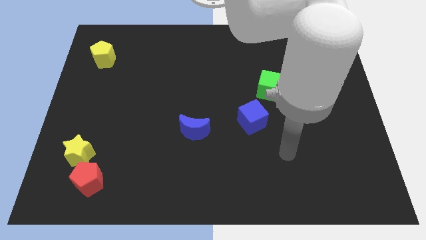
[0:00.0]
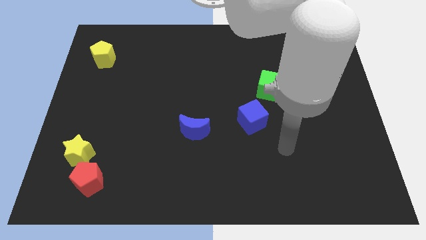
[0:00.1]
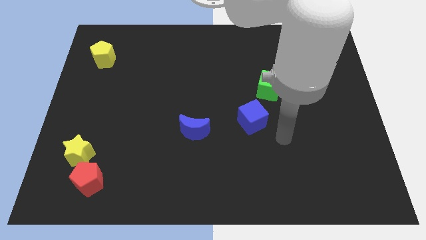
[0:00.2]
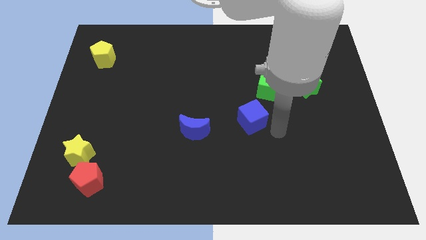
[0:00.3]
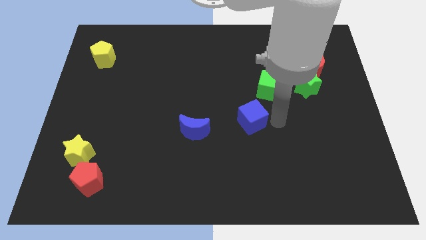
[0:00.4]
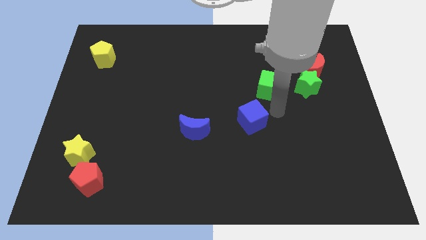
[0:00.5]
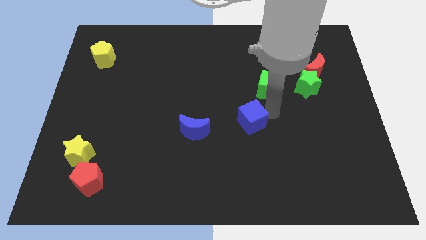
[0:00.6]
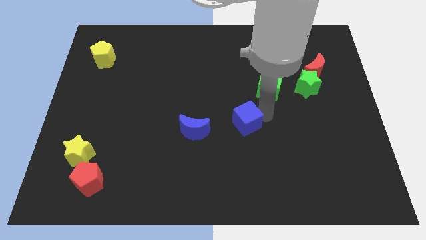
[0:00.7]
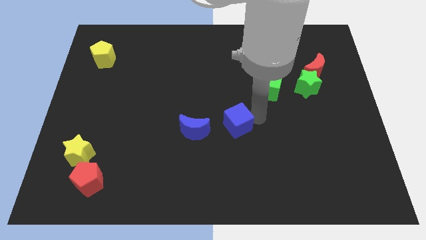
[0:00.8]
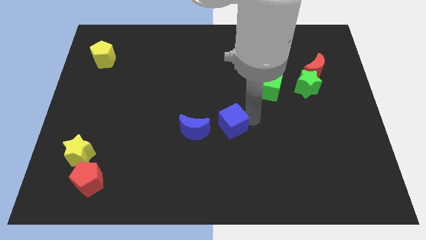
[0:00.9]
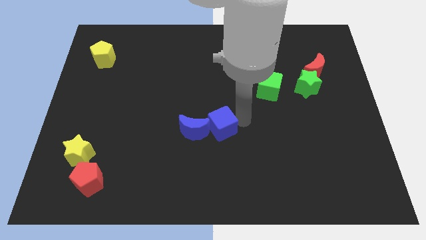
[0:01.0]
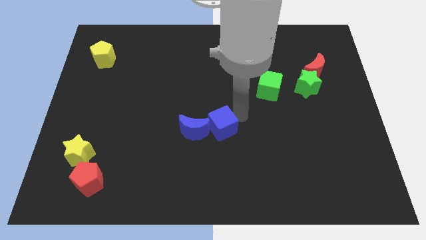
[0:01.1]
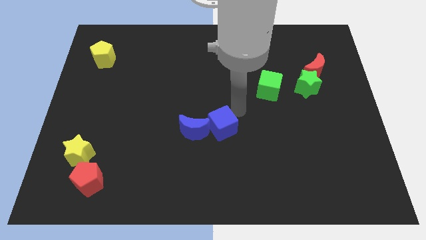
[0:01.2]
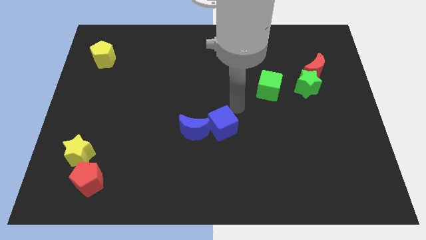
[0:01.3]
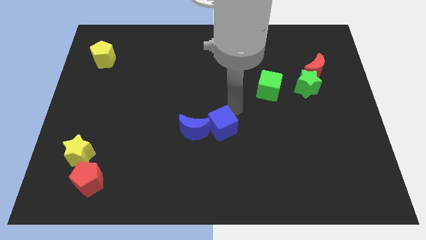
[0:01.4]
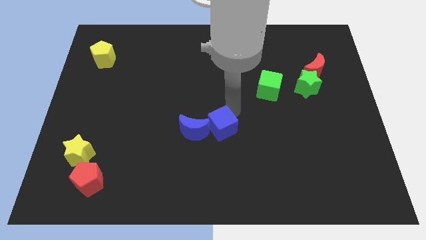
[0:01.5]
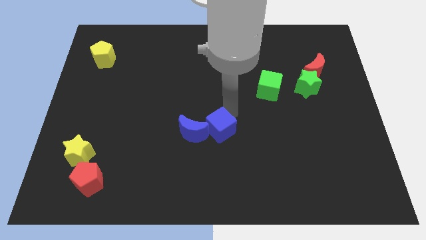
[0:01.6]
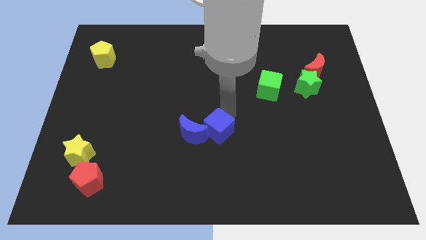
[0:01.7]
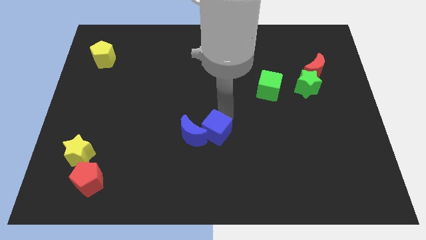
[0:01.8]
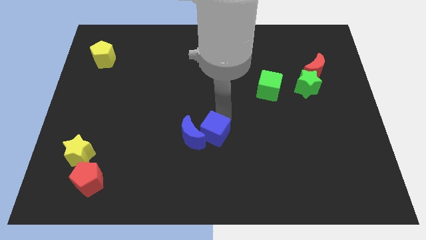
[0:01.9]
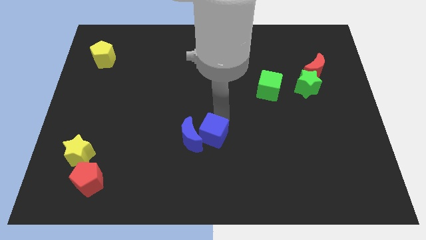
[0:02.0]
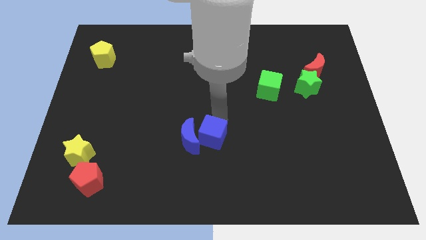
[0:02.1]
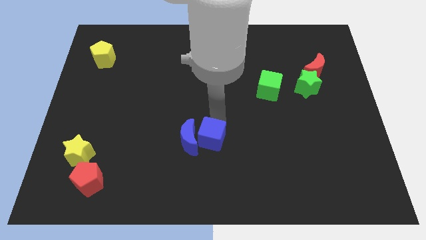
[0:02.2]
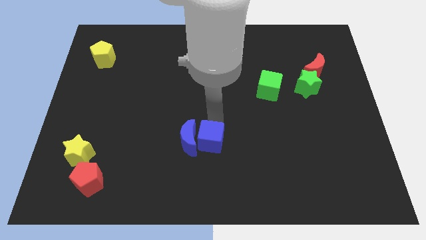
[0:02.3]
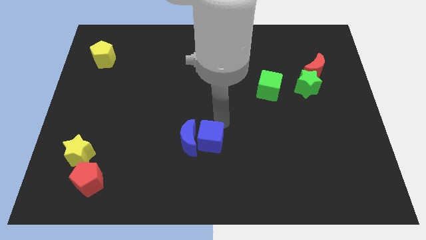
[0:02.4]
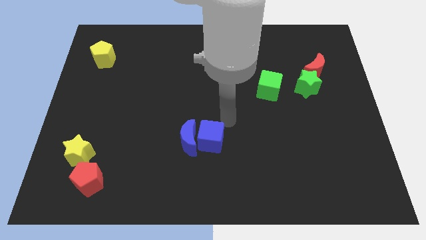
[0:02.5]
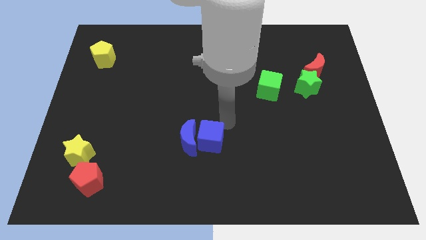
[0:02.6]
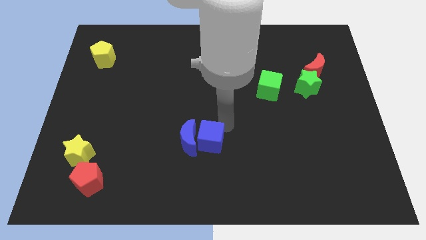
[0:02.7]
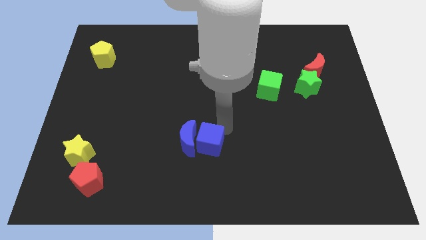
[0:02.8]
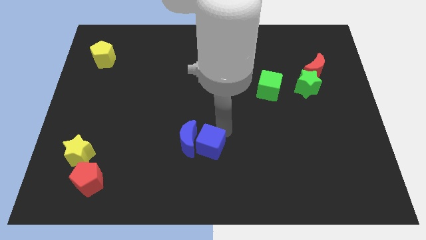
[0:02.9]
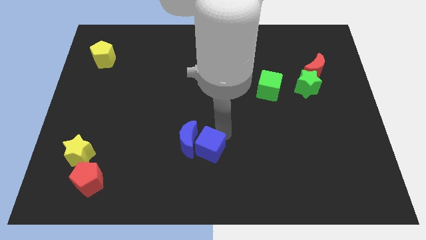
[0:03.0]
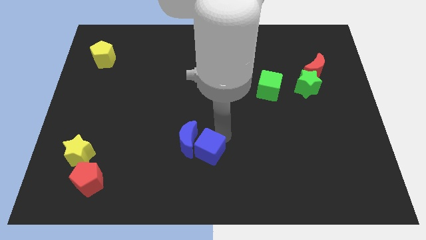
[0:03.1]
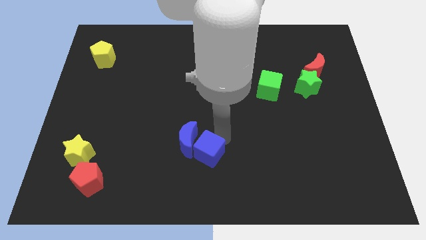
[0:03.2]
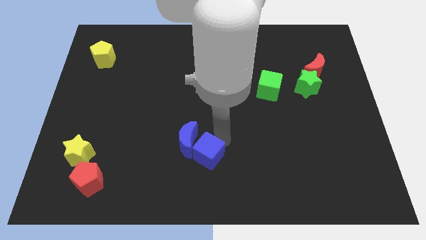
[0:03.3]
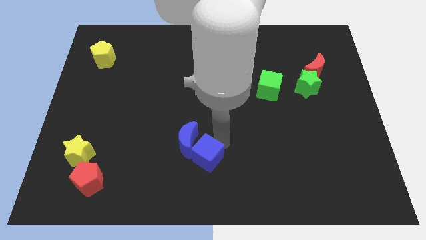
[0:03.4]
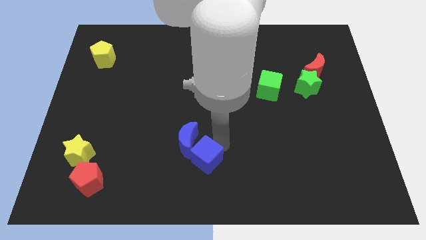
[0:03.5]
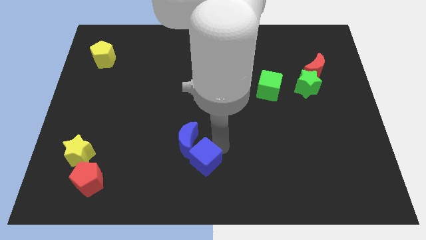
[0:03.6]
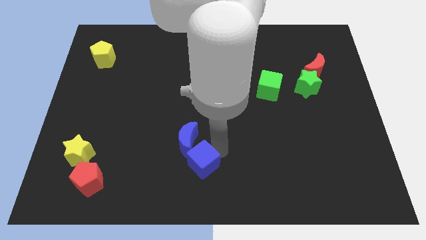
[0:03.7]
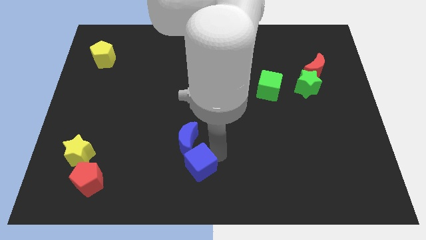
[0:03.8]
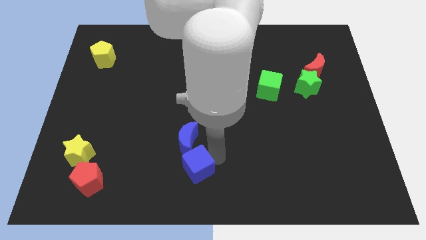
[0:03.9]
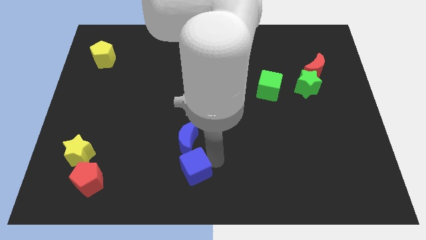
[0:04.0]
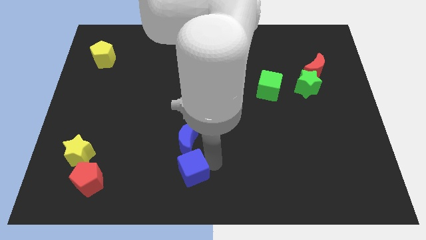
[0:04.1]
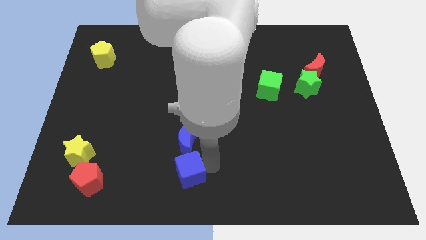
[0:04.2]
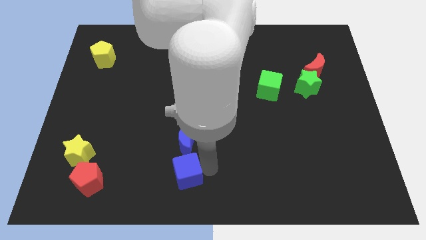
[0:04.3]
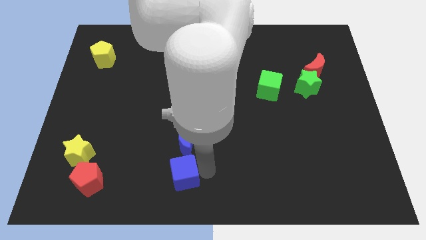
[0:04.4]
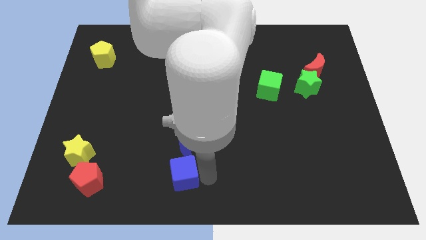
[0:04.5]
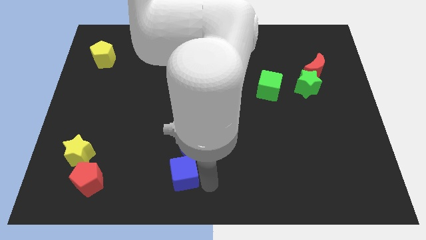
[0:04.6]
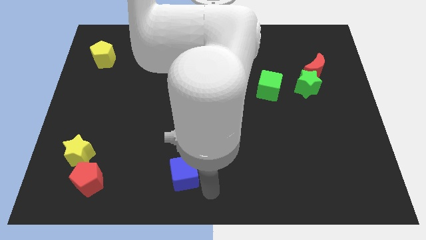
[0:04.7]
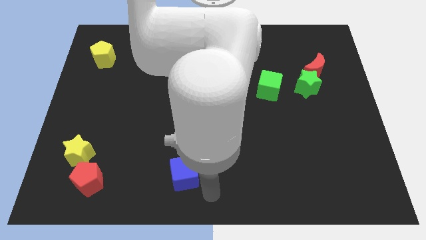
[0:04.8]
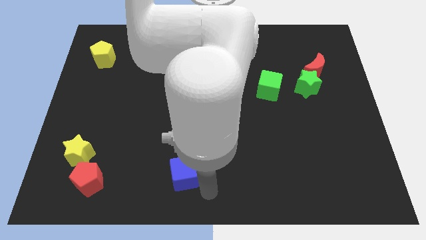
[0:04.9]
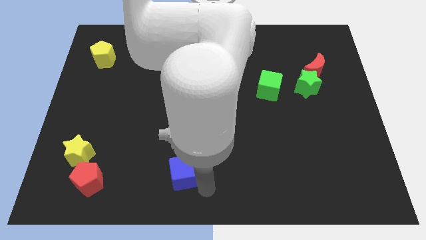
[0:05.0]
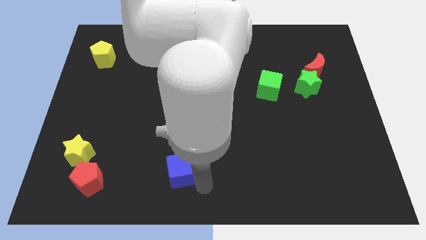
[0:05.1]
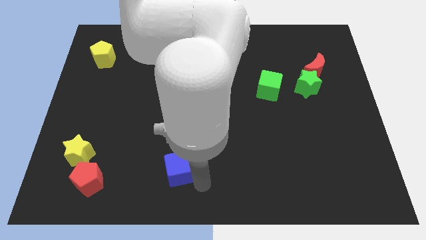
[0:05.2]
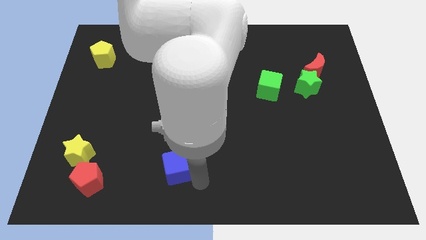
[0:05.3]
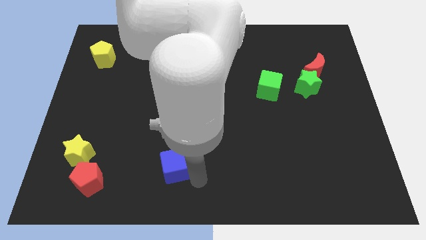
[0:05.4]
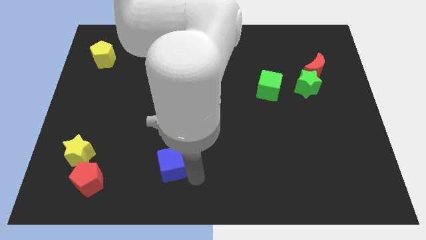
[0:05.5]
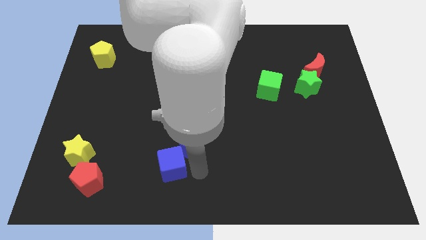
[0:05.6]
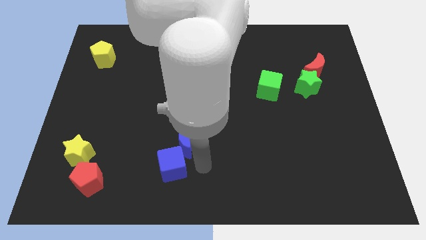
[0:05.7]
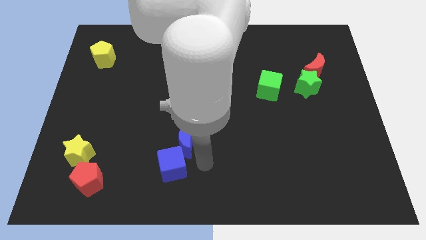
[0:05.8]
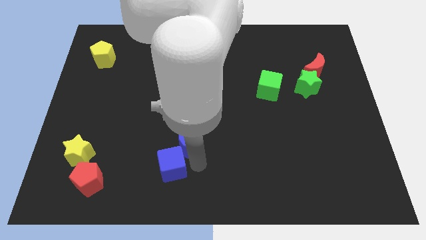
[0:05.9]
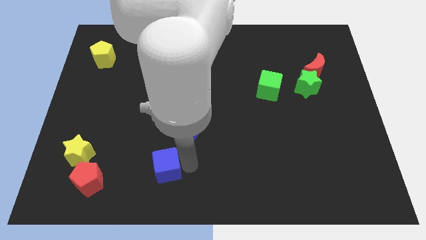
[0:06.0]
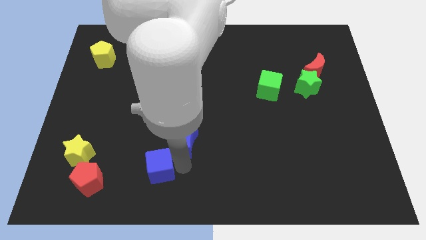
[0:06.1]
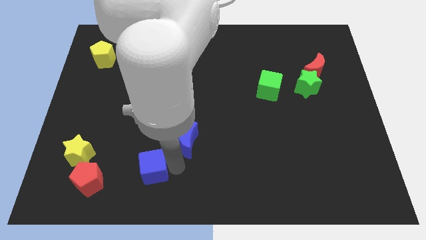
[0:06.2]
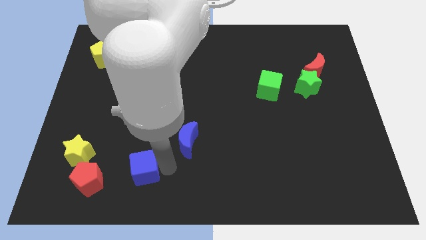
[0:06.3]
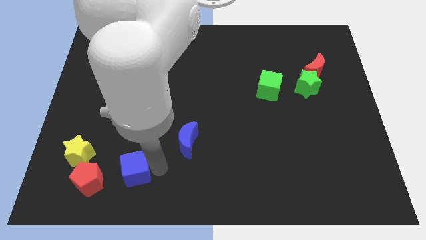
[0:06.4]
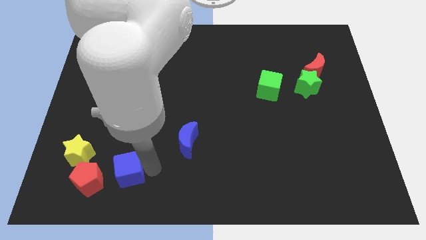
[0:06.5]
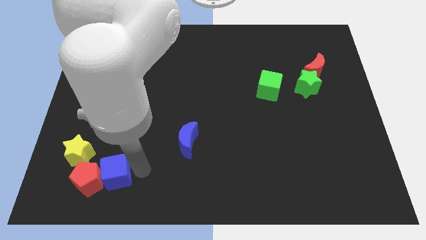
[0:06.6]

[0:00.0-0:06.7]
slide the blue cube to the red pentagon

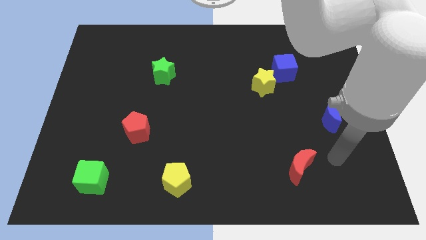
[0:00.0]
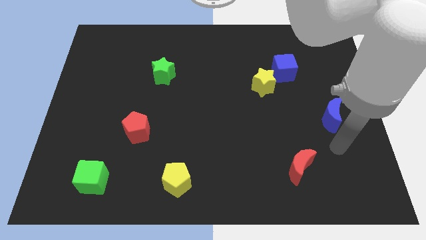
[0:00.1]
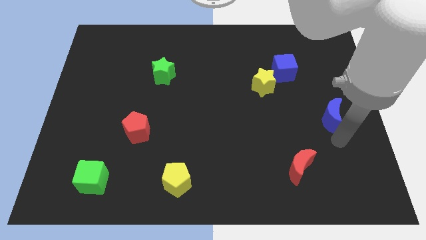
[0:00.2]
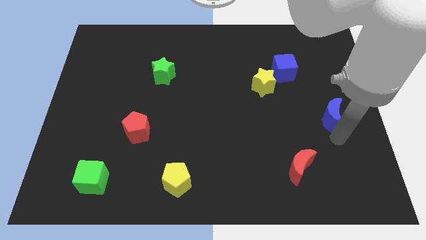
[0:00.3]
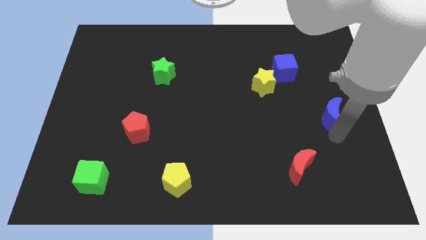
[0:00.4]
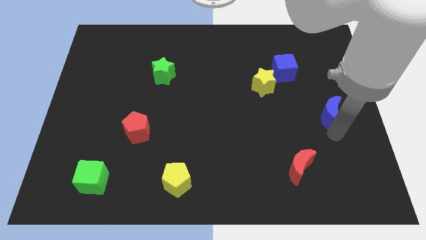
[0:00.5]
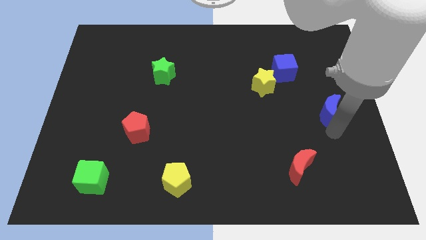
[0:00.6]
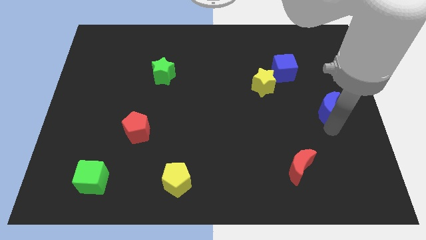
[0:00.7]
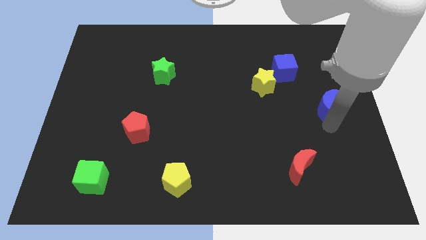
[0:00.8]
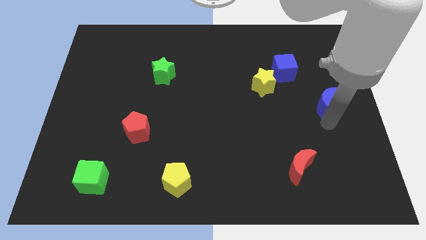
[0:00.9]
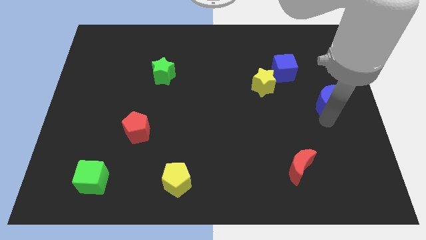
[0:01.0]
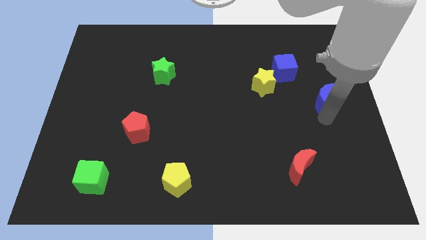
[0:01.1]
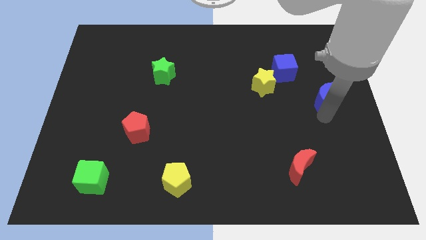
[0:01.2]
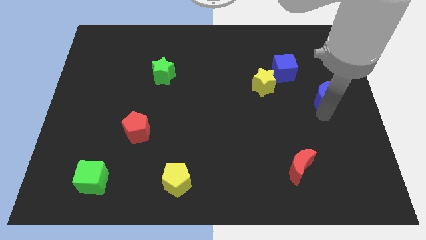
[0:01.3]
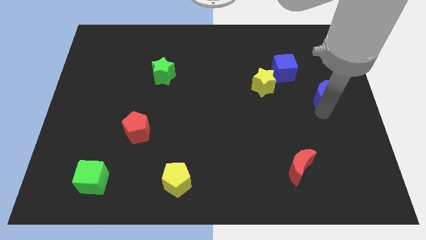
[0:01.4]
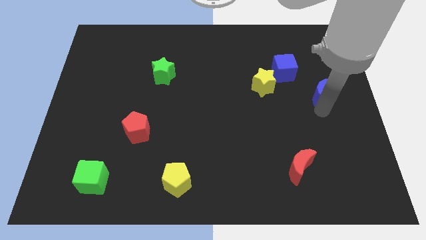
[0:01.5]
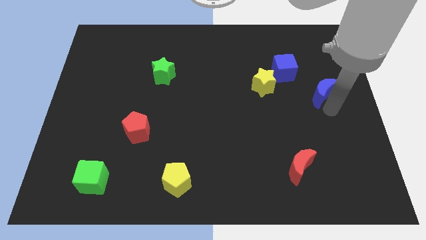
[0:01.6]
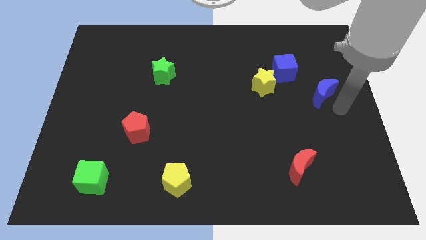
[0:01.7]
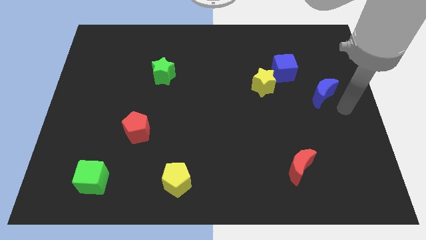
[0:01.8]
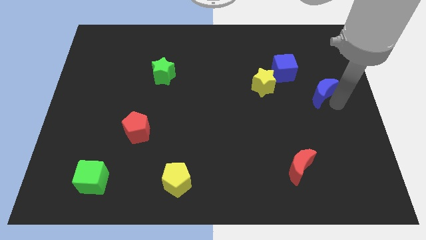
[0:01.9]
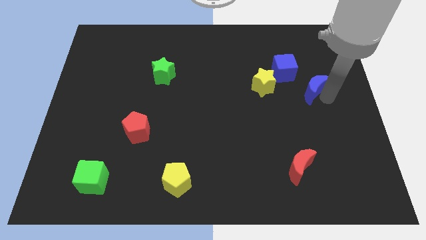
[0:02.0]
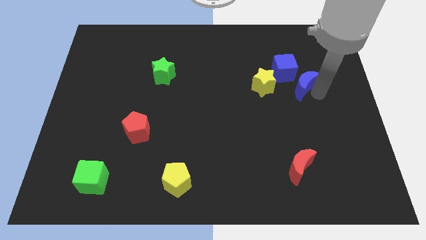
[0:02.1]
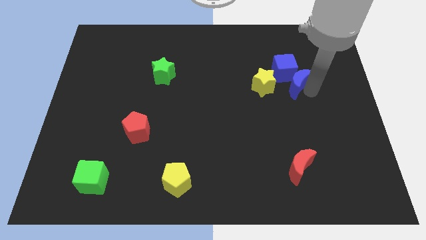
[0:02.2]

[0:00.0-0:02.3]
slide the blue moon next to the blue cube
